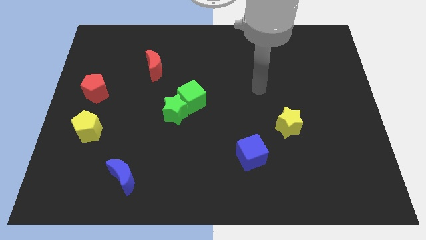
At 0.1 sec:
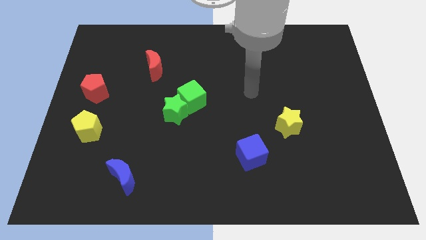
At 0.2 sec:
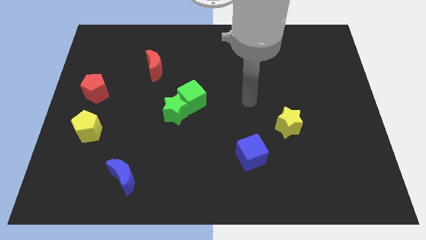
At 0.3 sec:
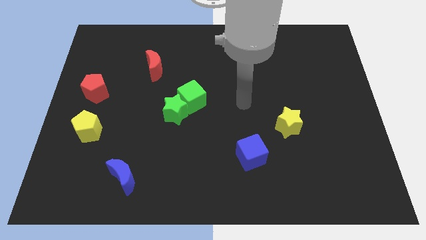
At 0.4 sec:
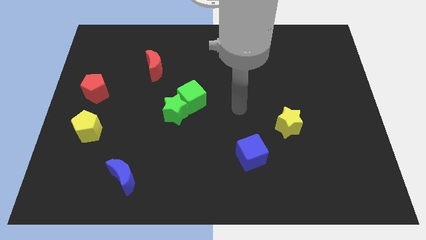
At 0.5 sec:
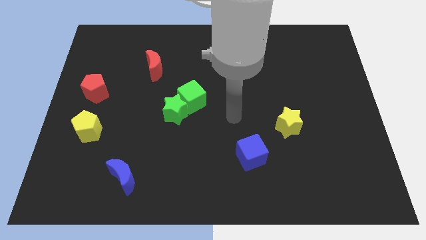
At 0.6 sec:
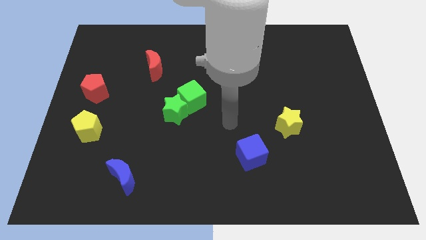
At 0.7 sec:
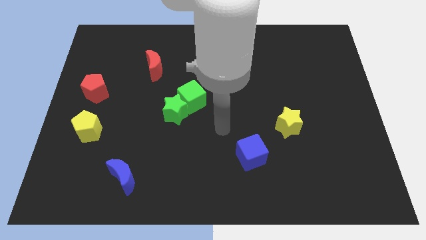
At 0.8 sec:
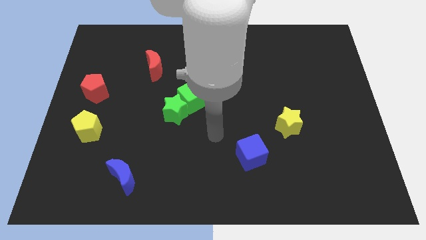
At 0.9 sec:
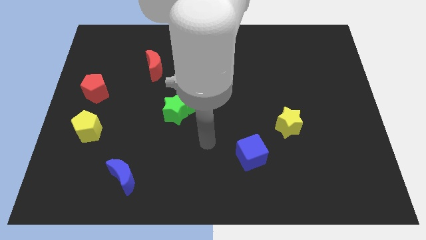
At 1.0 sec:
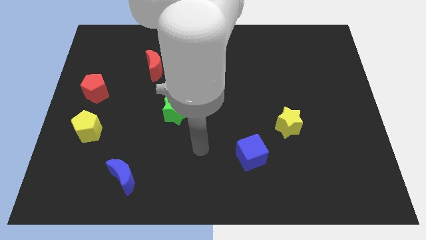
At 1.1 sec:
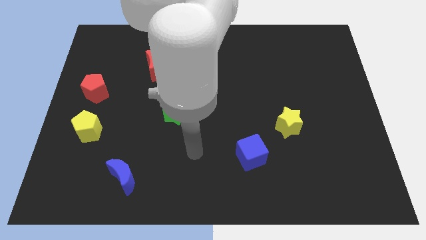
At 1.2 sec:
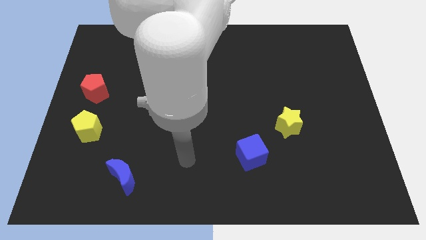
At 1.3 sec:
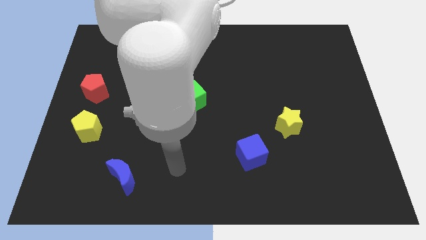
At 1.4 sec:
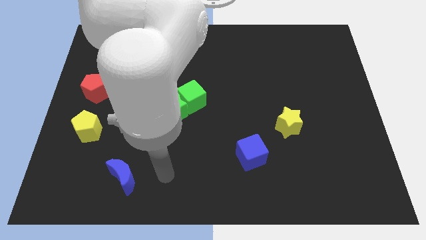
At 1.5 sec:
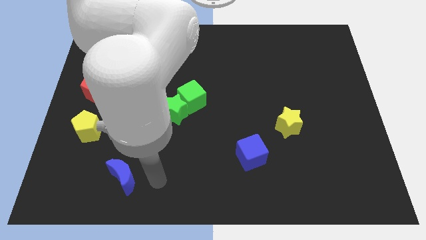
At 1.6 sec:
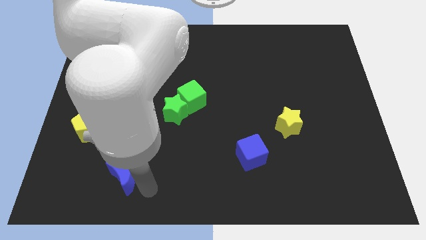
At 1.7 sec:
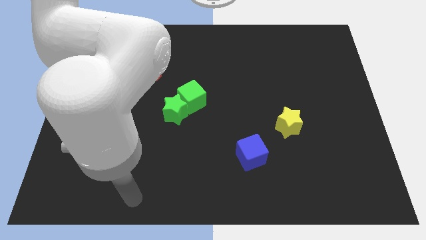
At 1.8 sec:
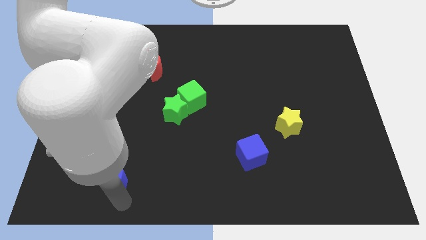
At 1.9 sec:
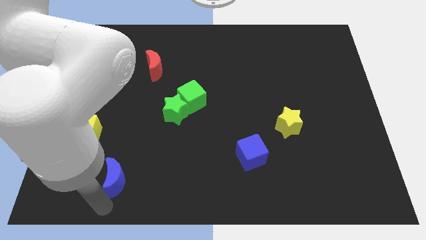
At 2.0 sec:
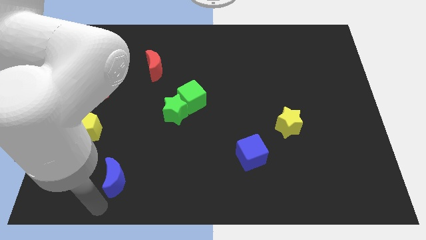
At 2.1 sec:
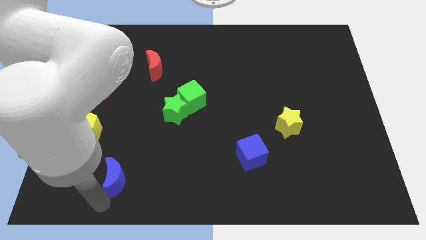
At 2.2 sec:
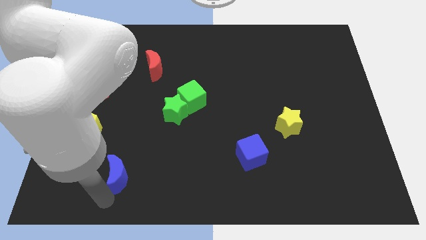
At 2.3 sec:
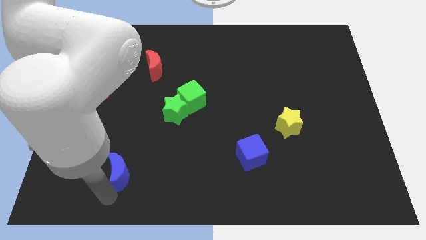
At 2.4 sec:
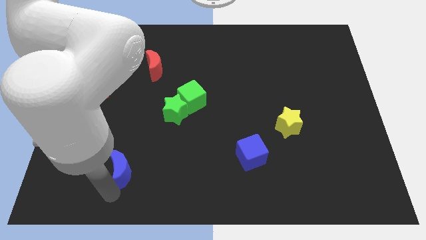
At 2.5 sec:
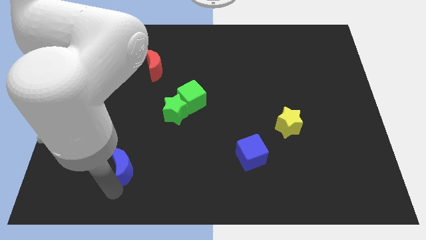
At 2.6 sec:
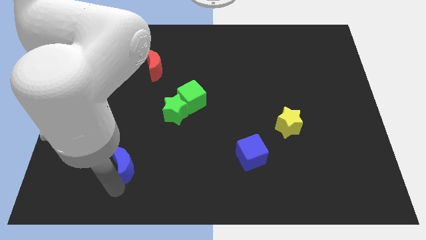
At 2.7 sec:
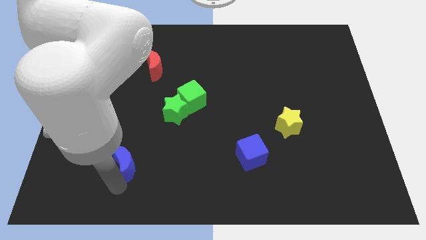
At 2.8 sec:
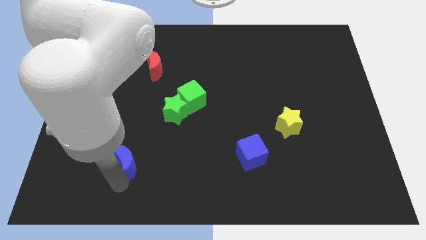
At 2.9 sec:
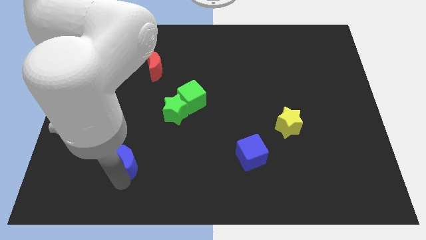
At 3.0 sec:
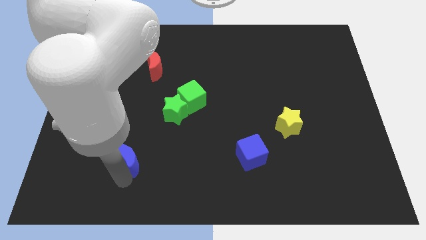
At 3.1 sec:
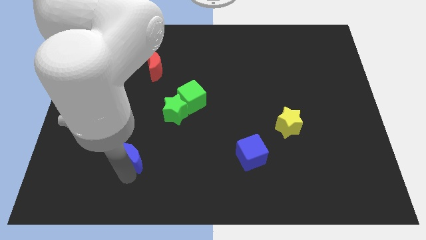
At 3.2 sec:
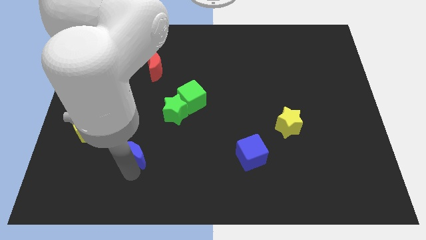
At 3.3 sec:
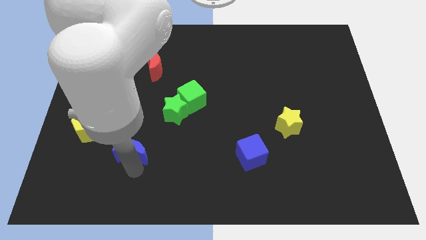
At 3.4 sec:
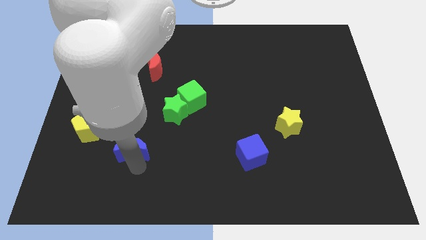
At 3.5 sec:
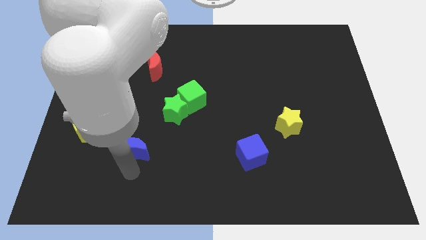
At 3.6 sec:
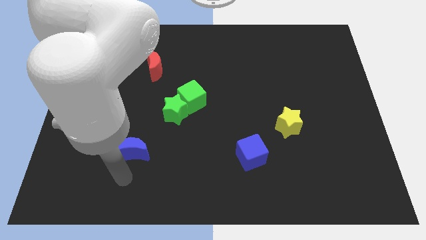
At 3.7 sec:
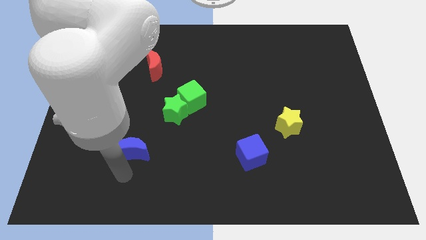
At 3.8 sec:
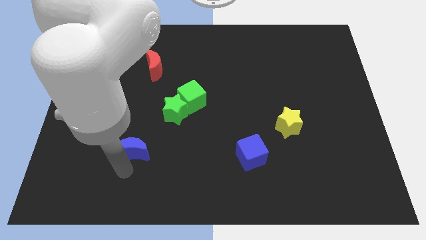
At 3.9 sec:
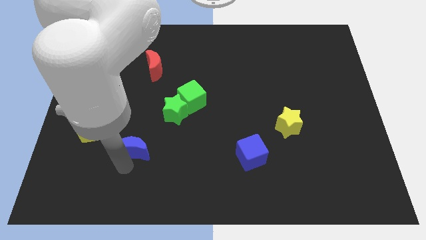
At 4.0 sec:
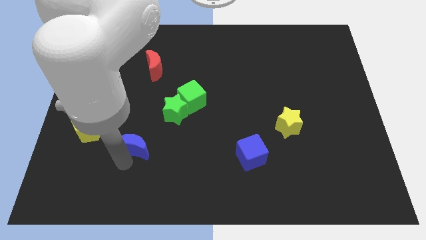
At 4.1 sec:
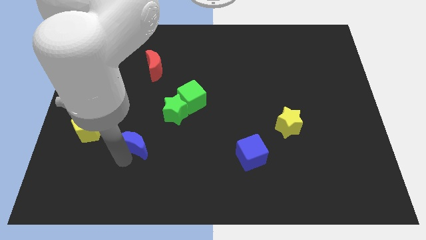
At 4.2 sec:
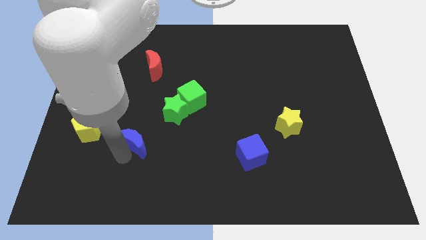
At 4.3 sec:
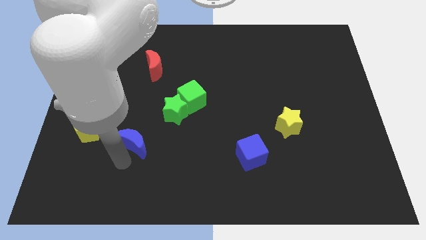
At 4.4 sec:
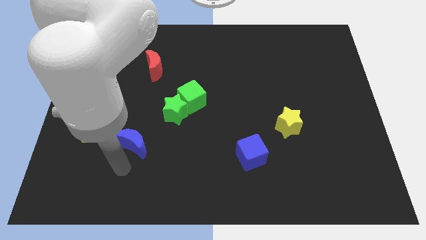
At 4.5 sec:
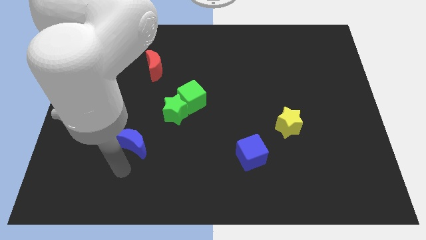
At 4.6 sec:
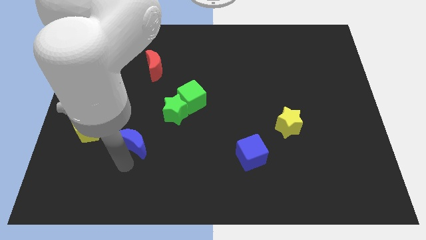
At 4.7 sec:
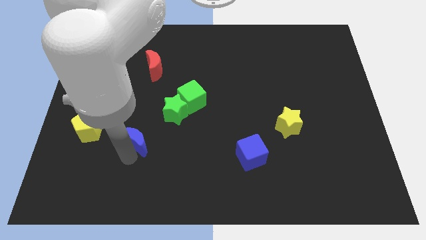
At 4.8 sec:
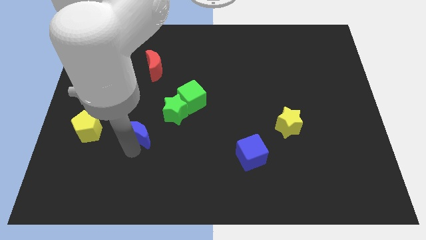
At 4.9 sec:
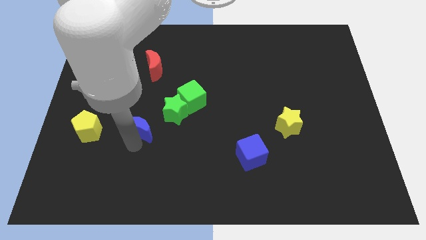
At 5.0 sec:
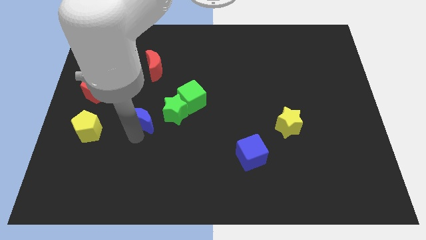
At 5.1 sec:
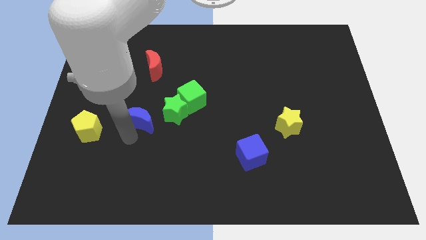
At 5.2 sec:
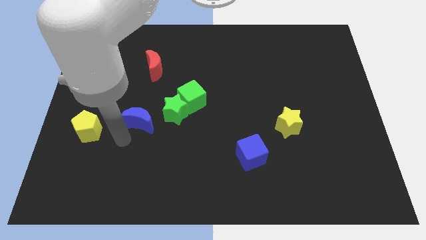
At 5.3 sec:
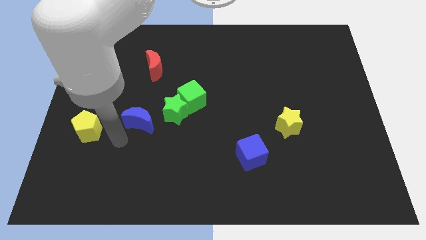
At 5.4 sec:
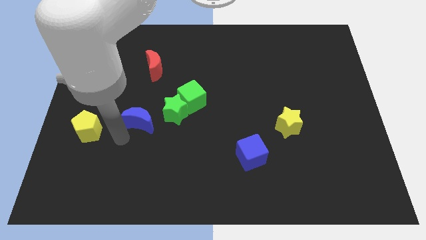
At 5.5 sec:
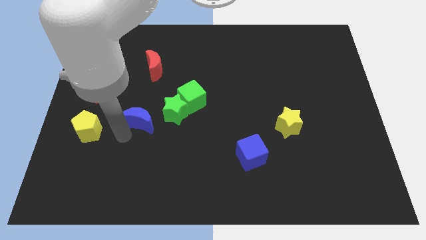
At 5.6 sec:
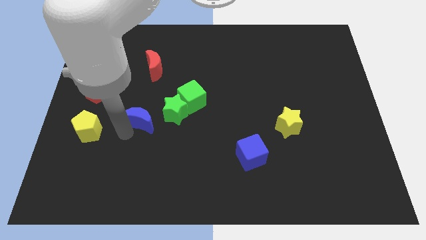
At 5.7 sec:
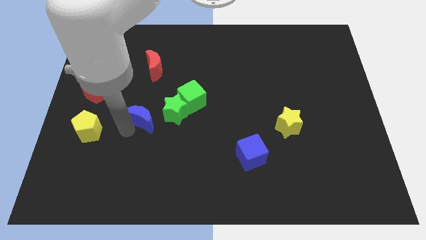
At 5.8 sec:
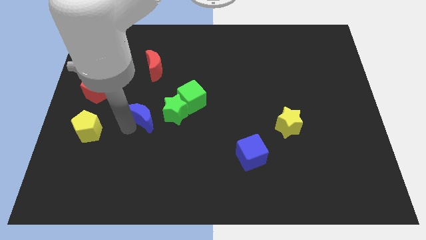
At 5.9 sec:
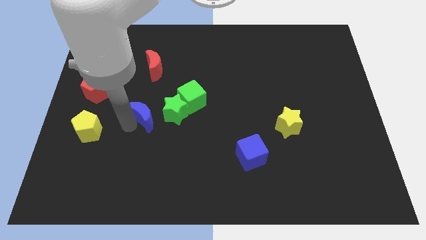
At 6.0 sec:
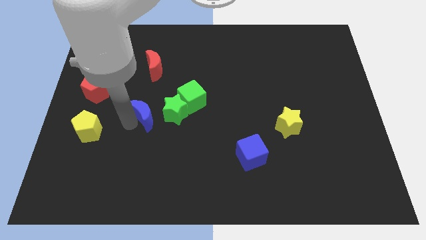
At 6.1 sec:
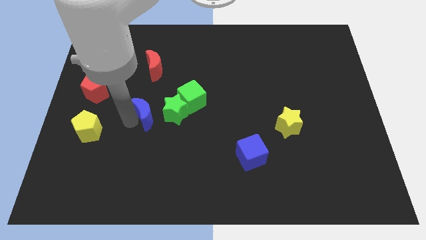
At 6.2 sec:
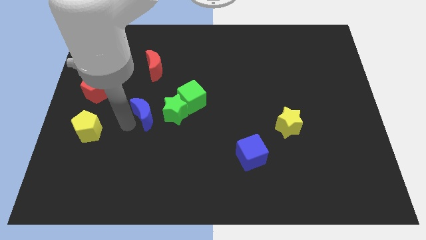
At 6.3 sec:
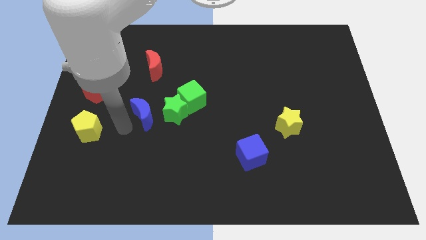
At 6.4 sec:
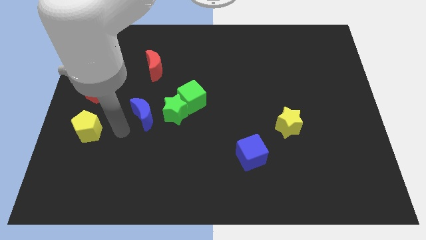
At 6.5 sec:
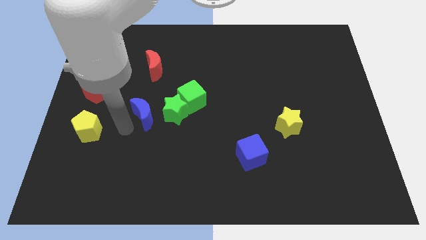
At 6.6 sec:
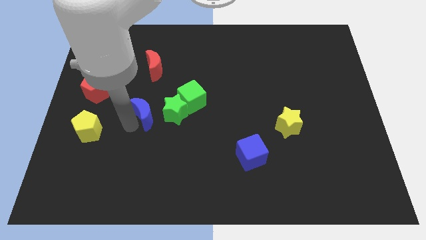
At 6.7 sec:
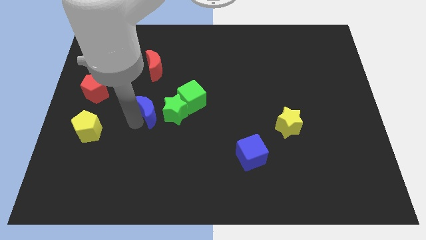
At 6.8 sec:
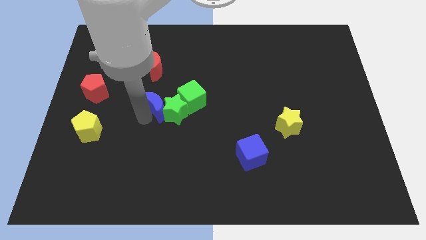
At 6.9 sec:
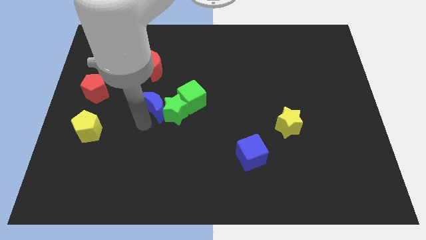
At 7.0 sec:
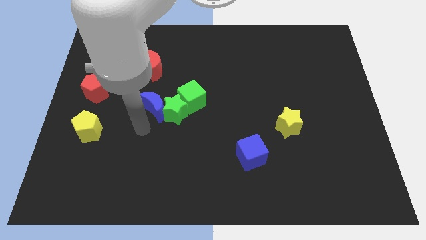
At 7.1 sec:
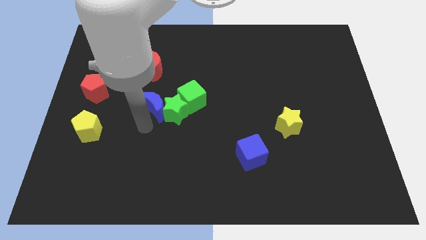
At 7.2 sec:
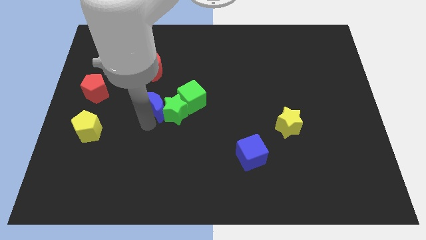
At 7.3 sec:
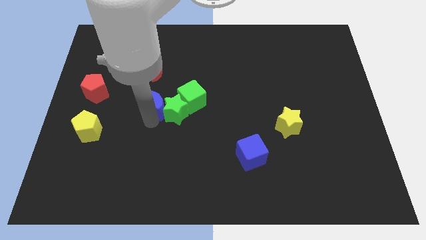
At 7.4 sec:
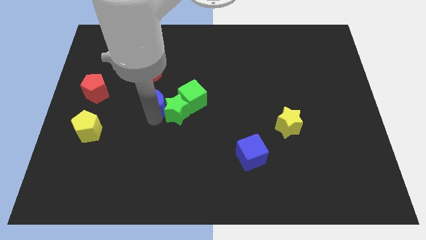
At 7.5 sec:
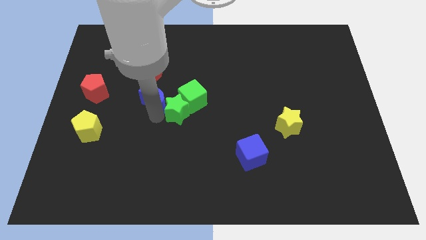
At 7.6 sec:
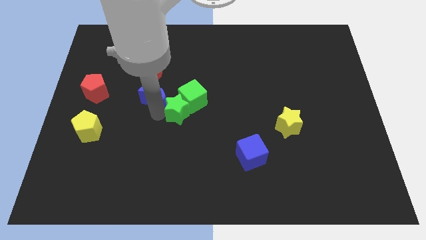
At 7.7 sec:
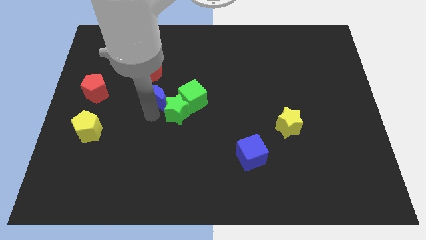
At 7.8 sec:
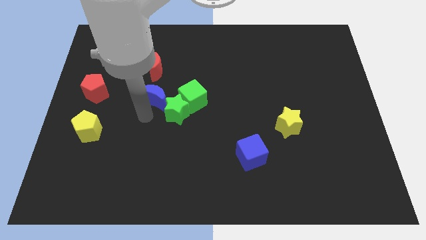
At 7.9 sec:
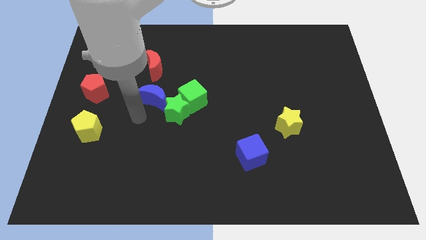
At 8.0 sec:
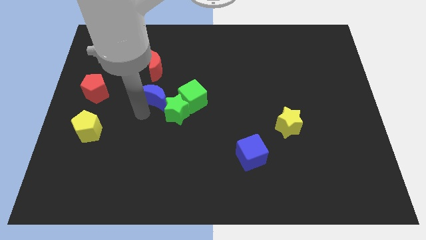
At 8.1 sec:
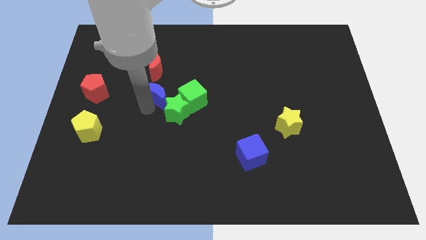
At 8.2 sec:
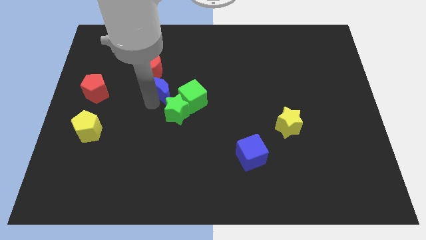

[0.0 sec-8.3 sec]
push the blue moon to the top left of the green cube
